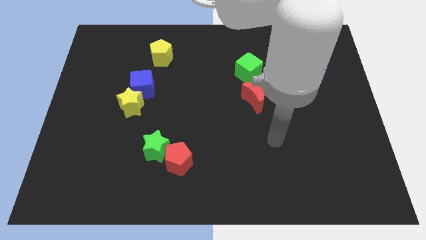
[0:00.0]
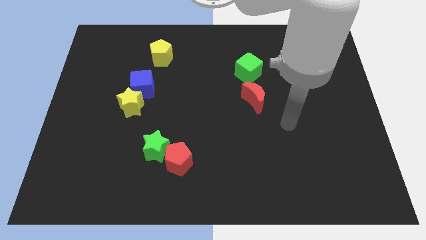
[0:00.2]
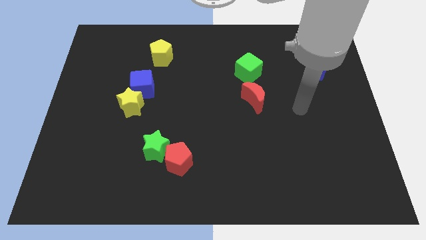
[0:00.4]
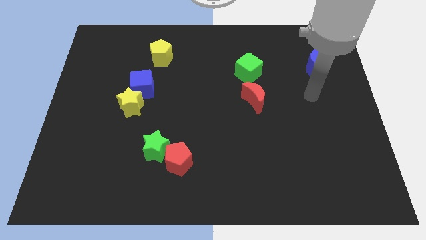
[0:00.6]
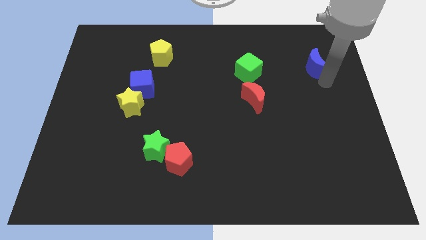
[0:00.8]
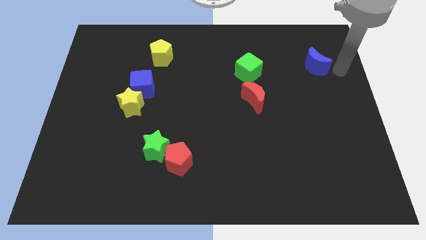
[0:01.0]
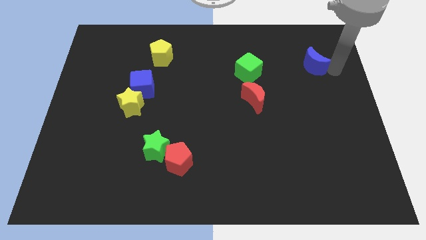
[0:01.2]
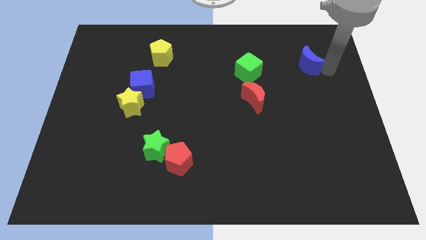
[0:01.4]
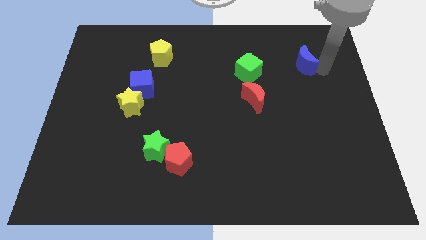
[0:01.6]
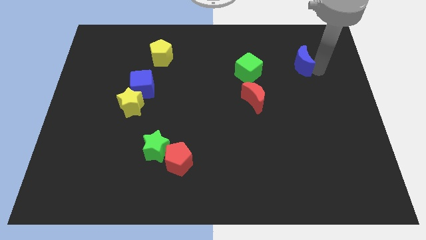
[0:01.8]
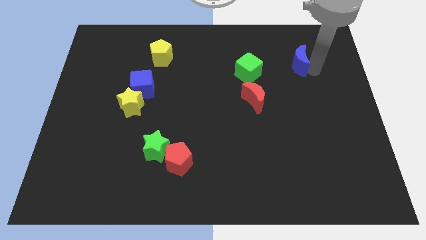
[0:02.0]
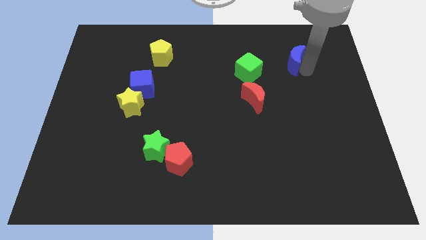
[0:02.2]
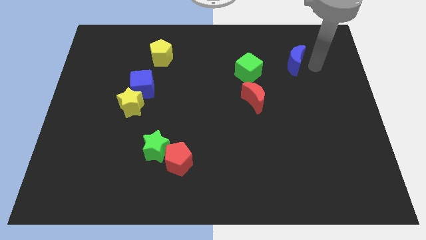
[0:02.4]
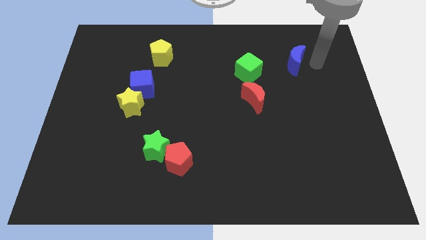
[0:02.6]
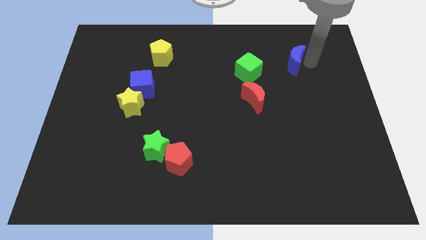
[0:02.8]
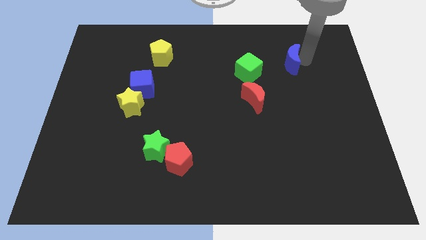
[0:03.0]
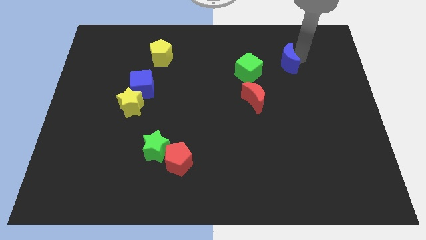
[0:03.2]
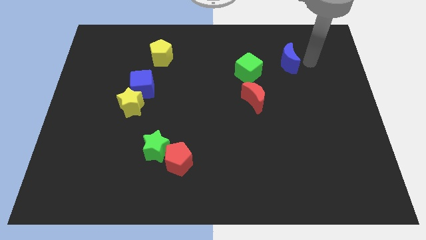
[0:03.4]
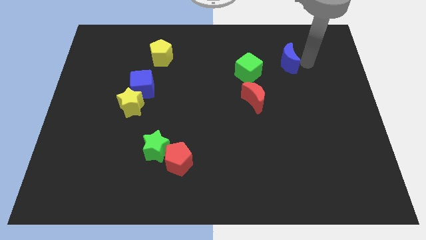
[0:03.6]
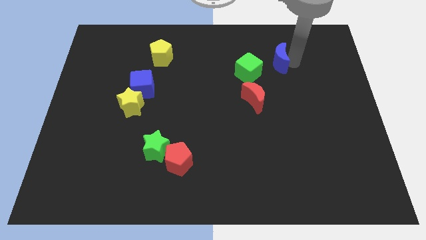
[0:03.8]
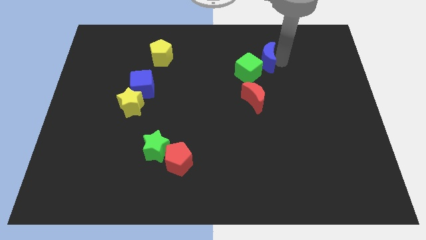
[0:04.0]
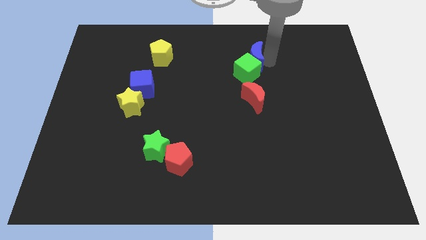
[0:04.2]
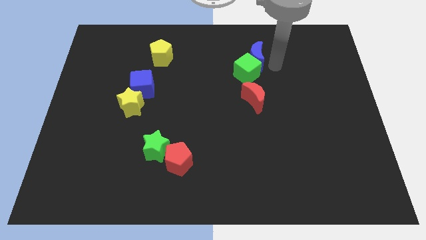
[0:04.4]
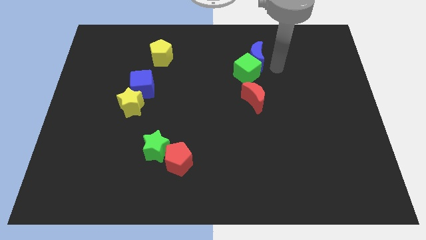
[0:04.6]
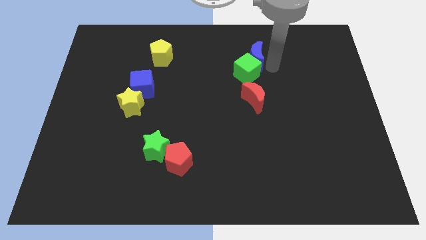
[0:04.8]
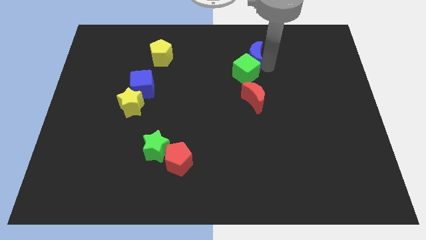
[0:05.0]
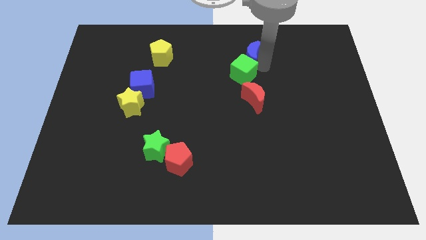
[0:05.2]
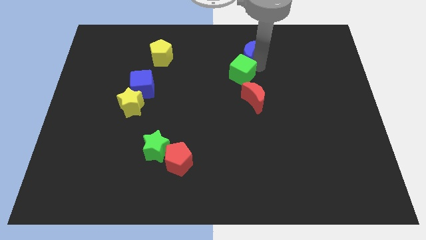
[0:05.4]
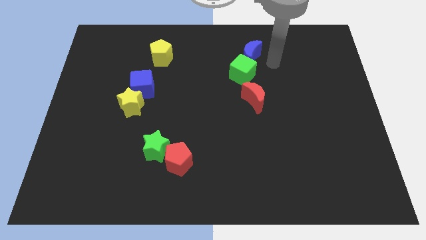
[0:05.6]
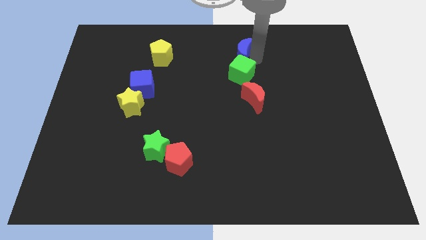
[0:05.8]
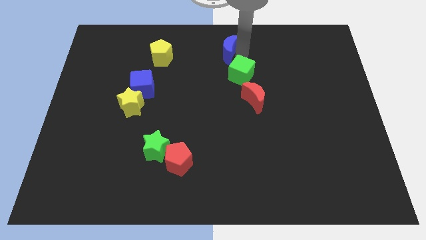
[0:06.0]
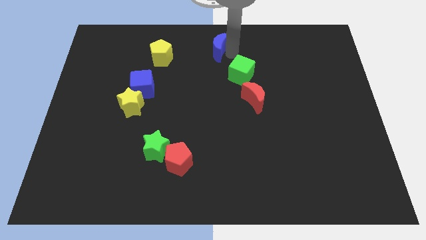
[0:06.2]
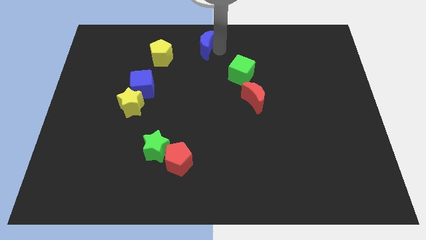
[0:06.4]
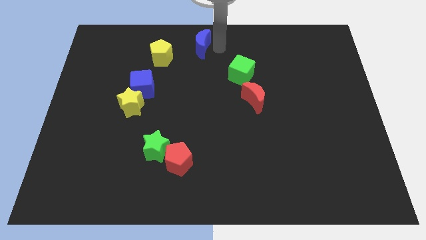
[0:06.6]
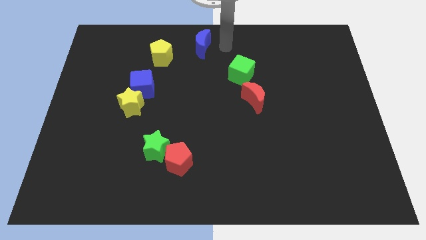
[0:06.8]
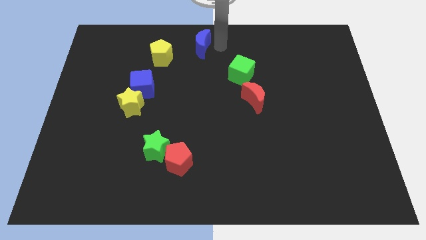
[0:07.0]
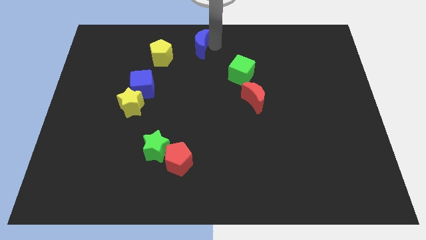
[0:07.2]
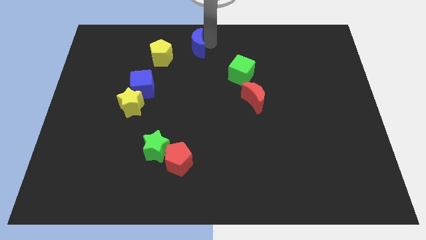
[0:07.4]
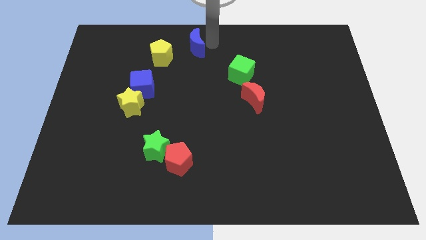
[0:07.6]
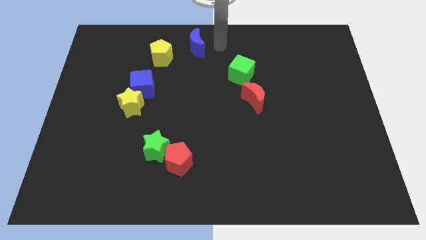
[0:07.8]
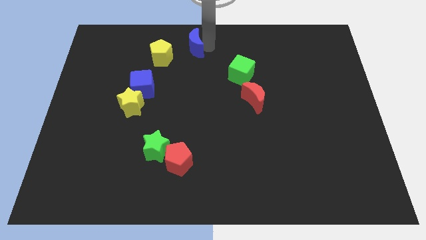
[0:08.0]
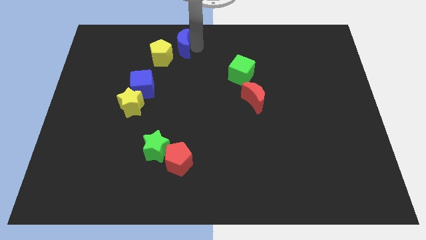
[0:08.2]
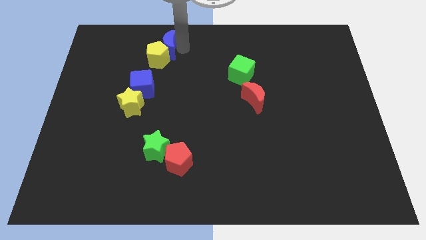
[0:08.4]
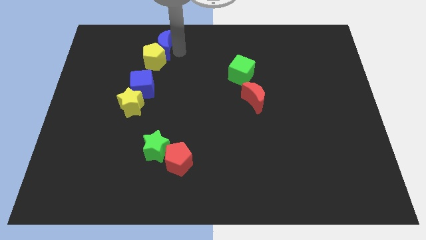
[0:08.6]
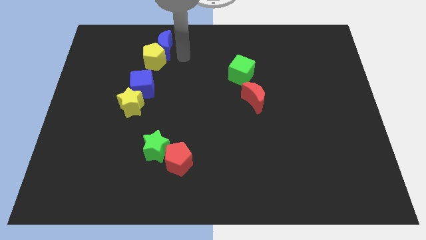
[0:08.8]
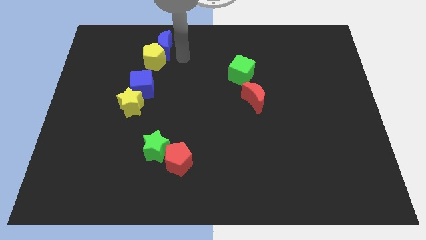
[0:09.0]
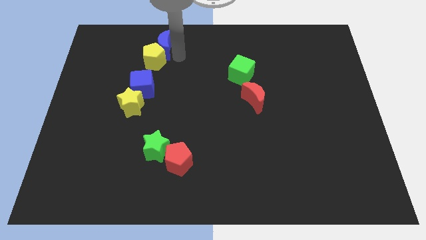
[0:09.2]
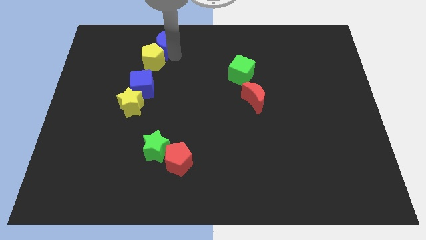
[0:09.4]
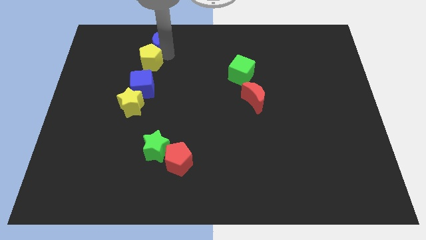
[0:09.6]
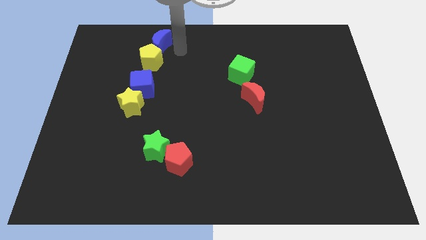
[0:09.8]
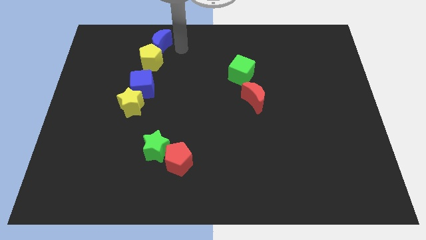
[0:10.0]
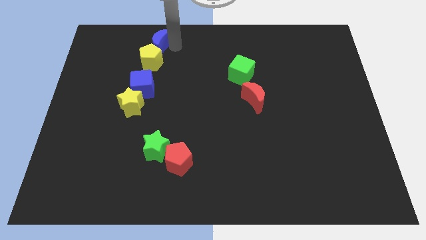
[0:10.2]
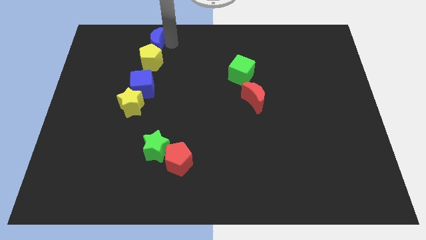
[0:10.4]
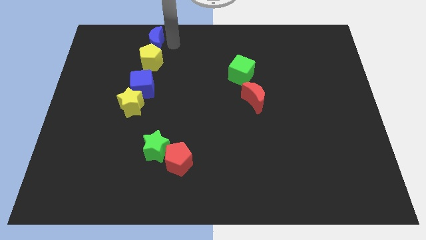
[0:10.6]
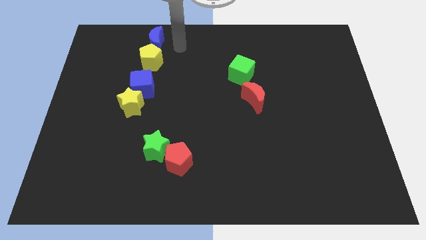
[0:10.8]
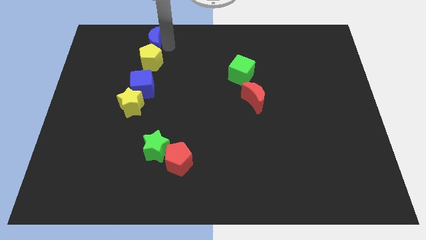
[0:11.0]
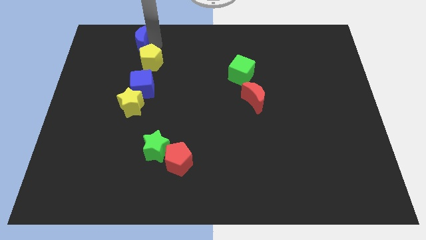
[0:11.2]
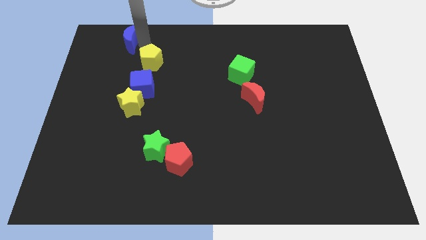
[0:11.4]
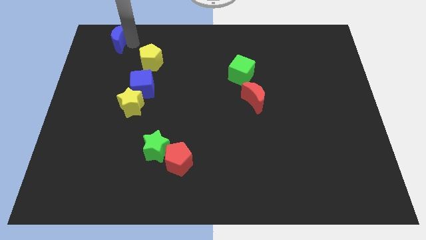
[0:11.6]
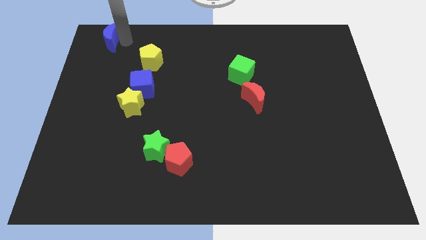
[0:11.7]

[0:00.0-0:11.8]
push the blue moon to the top left of the board
